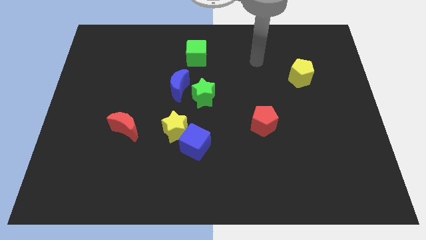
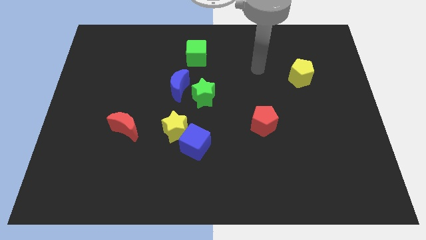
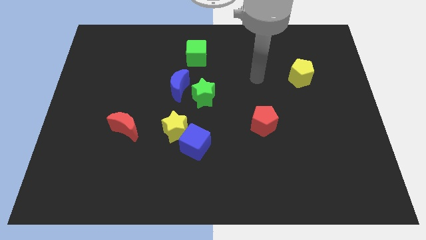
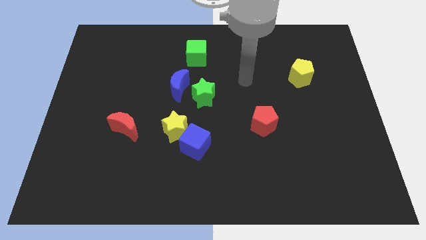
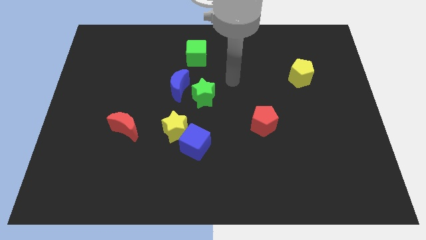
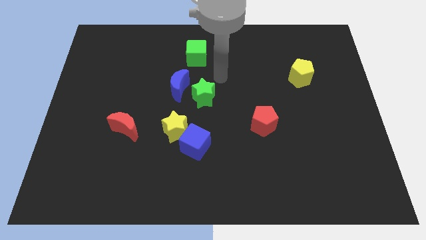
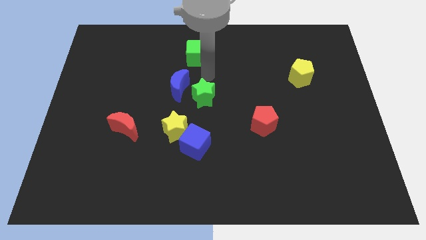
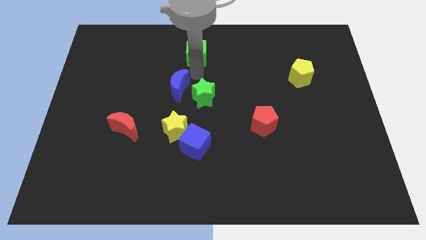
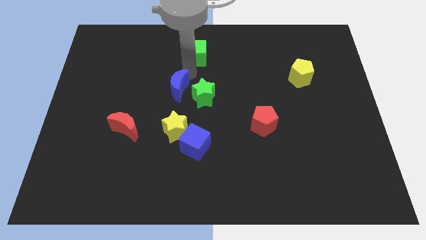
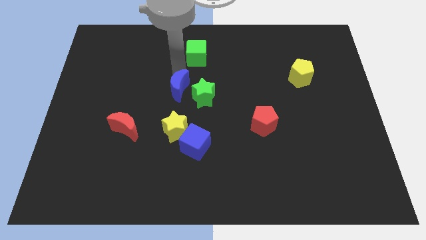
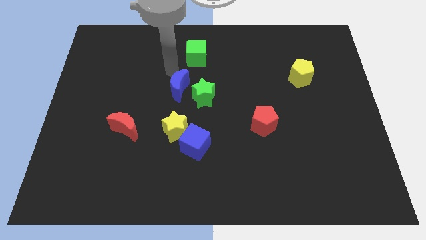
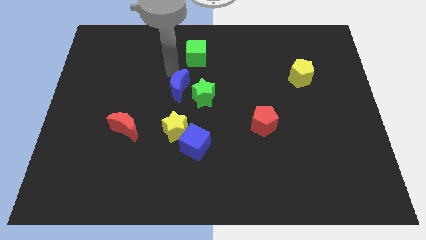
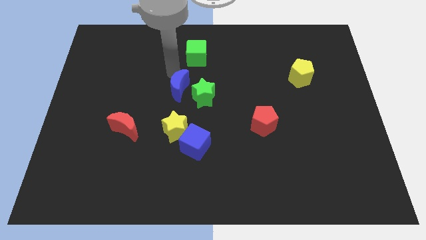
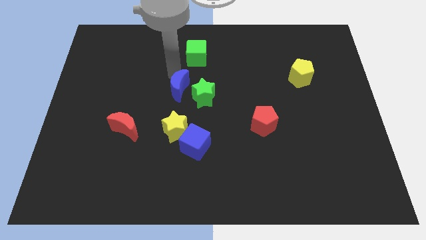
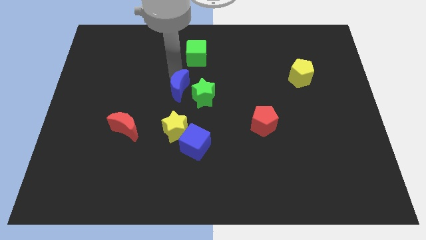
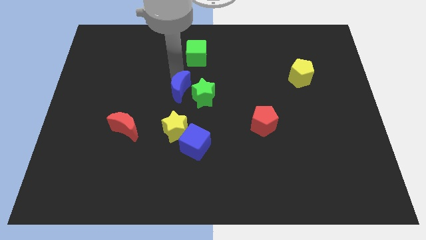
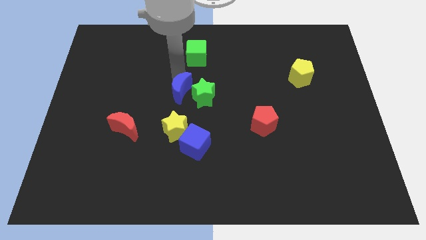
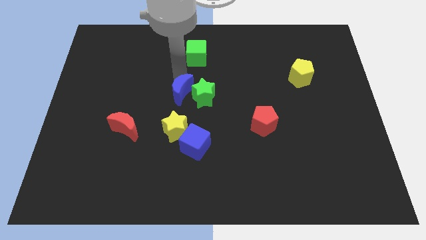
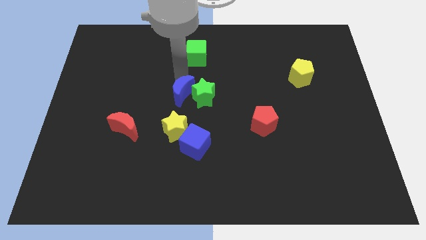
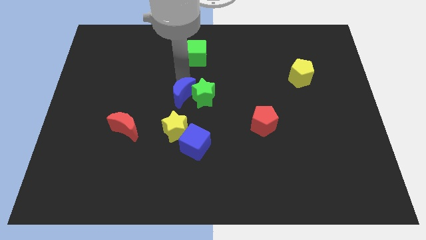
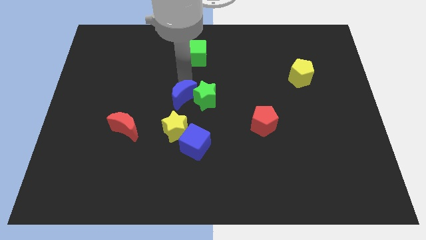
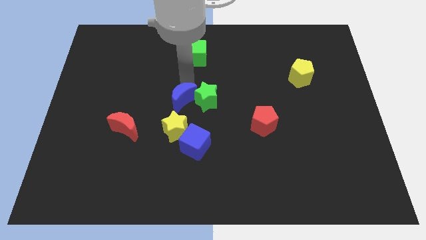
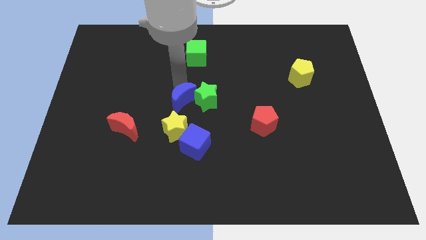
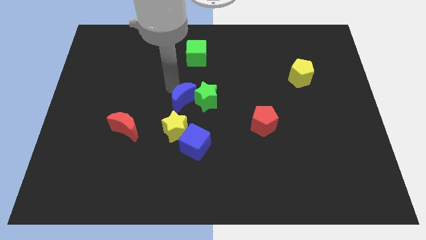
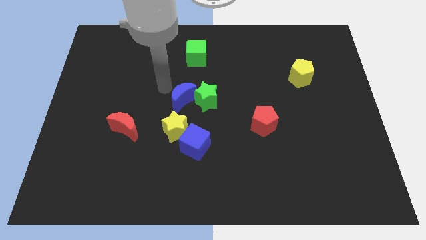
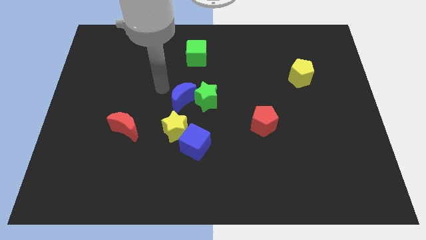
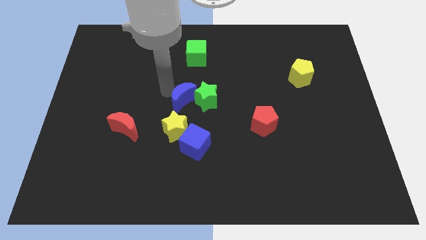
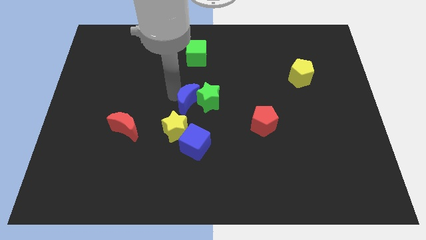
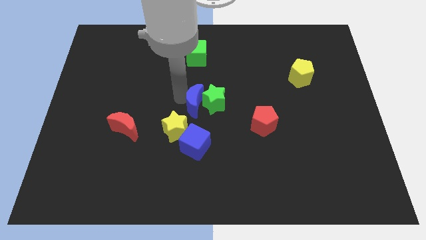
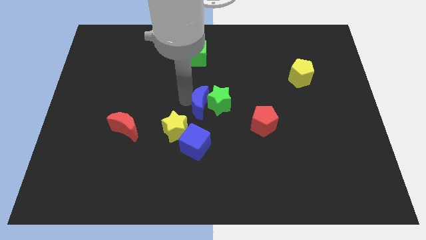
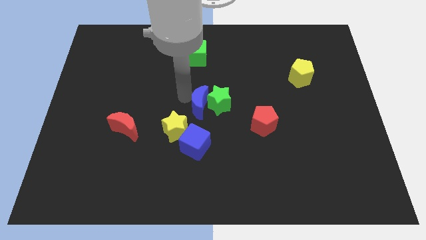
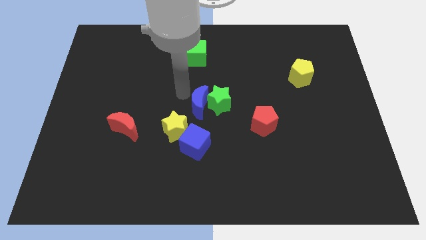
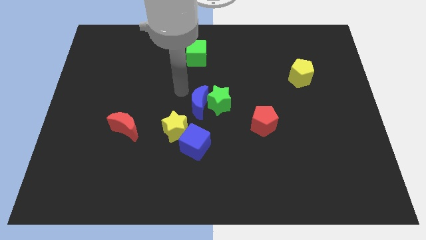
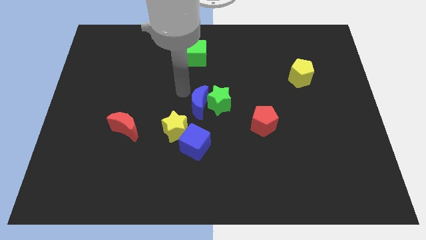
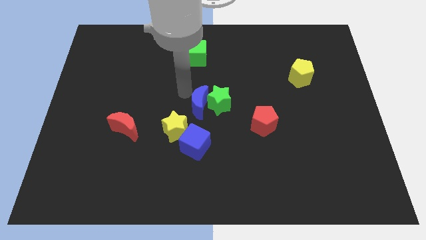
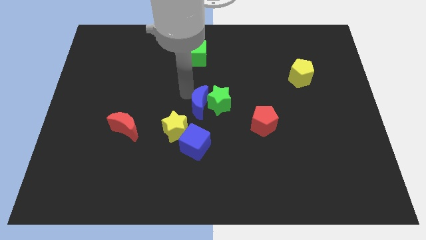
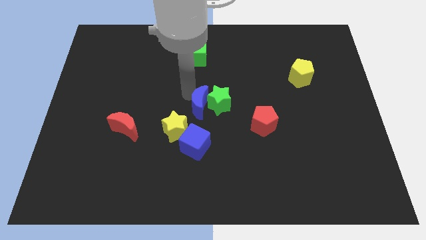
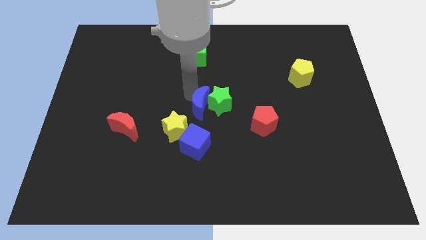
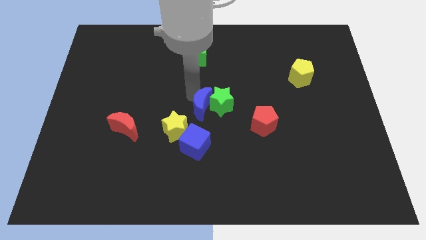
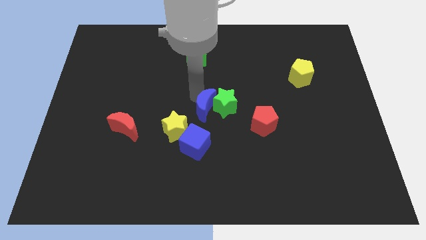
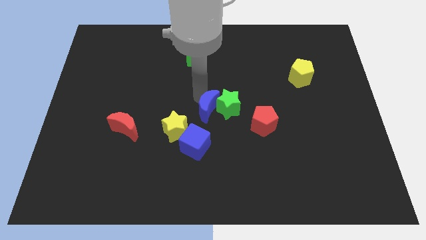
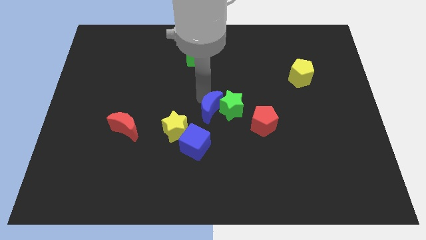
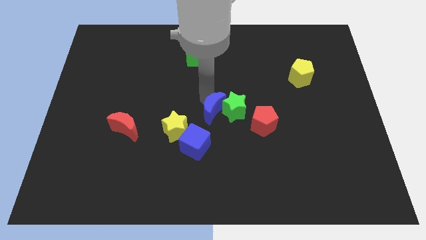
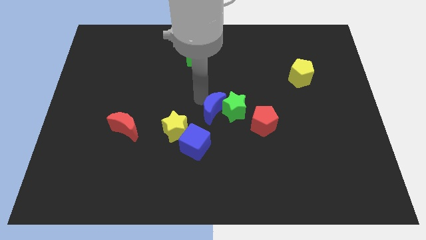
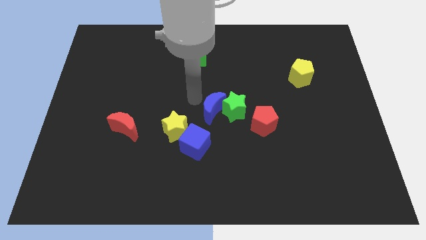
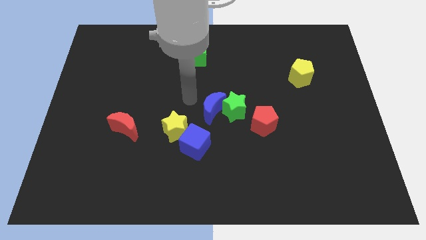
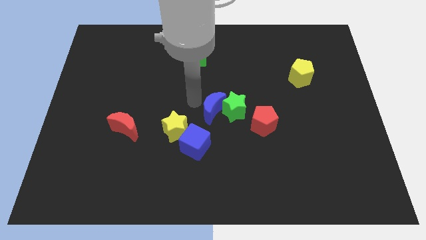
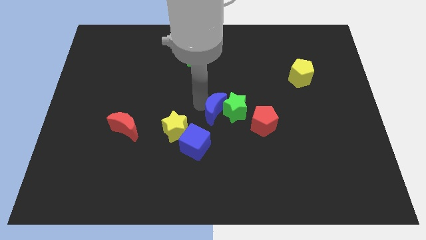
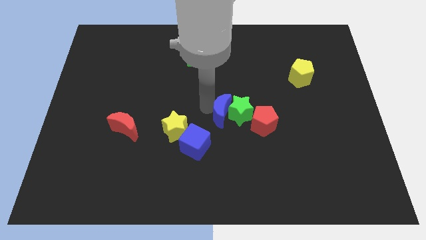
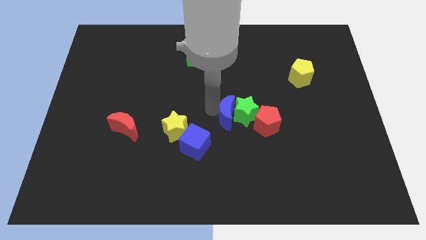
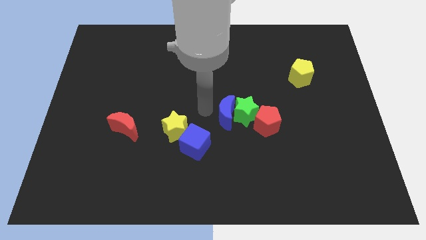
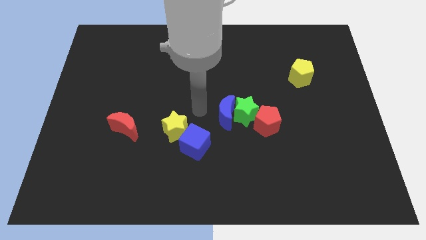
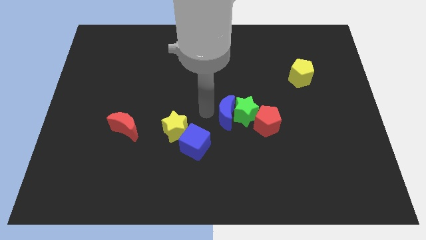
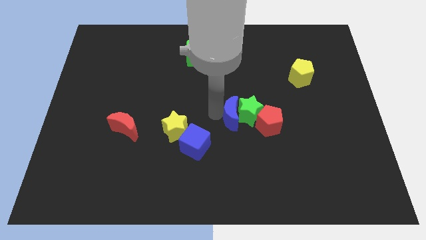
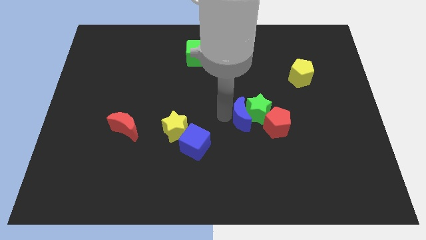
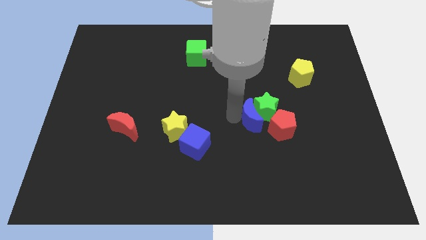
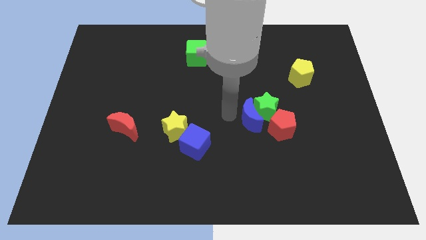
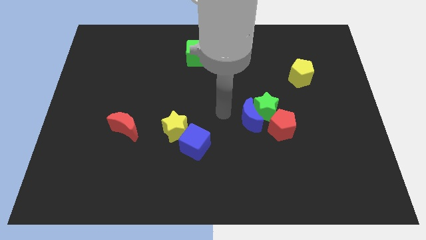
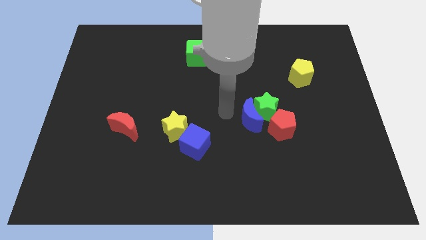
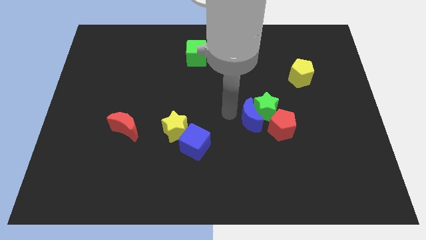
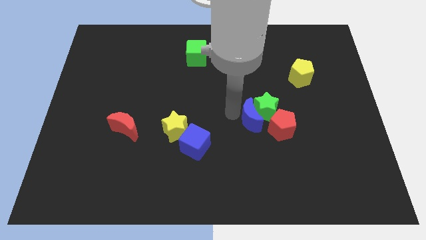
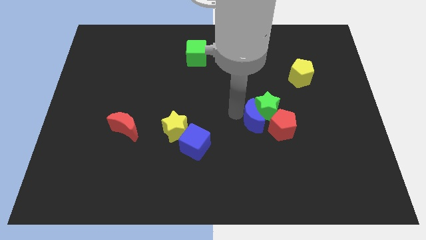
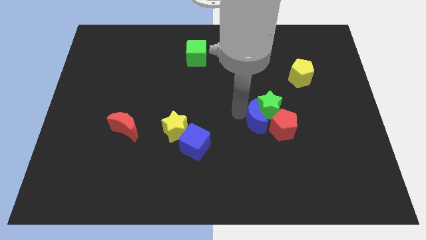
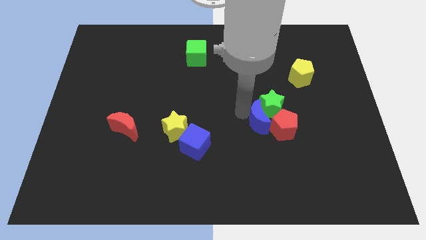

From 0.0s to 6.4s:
push the blue moon next to the red pentagon

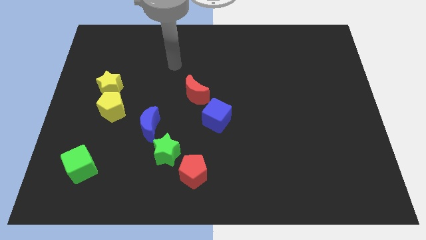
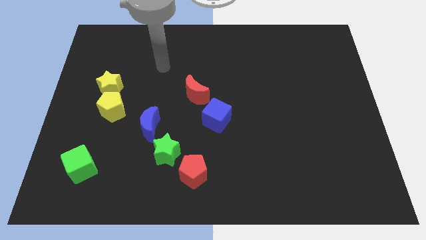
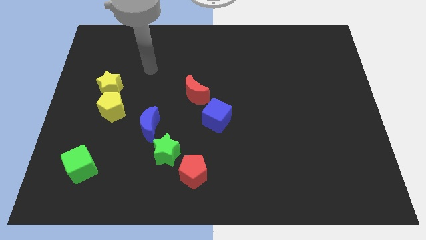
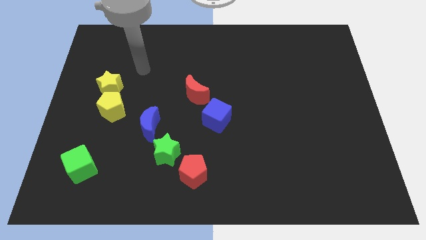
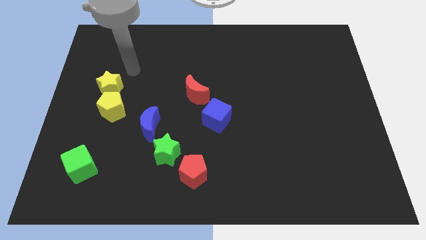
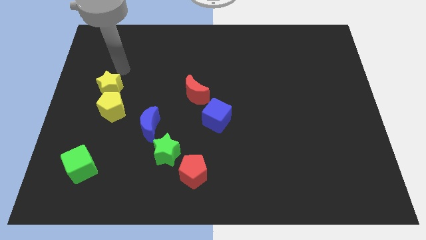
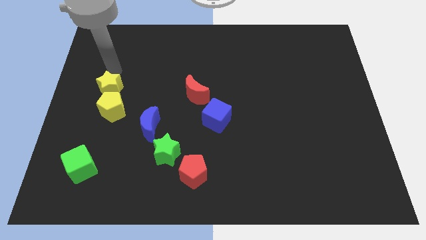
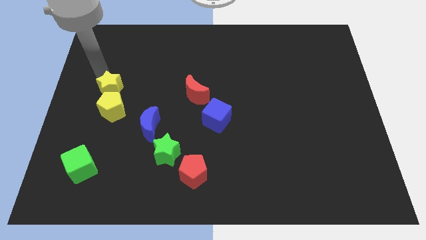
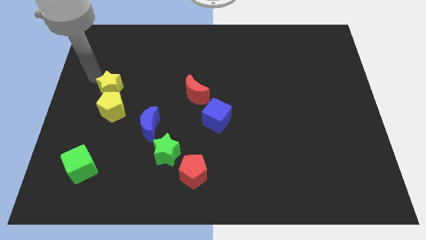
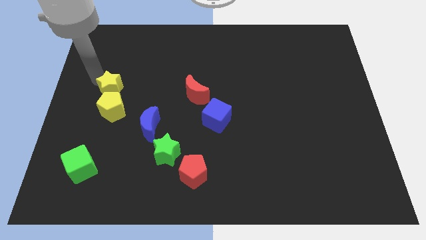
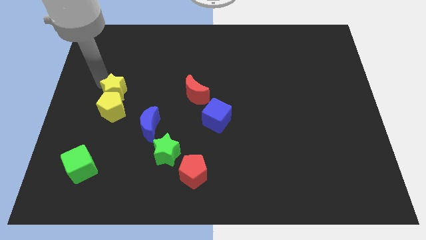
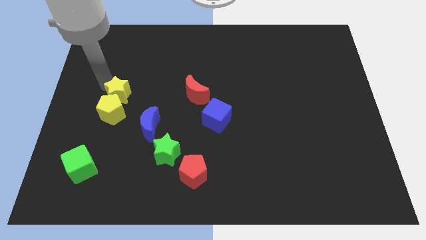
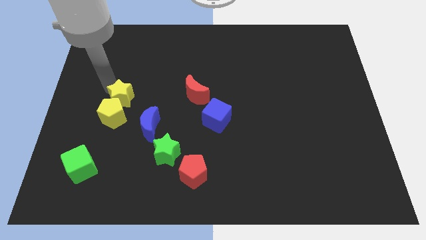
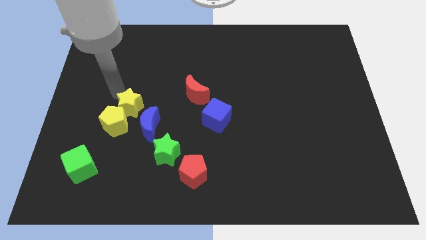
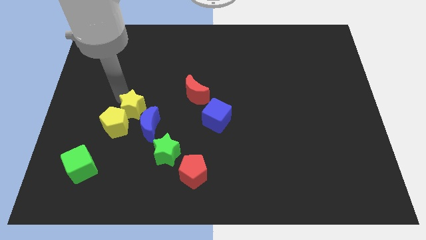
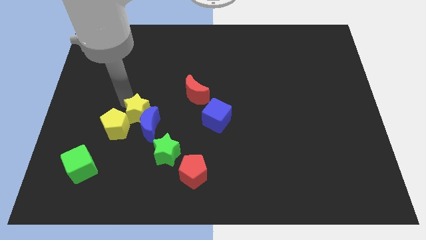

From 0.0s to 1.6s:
push the yellow star to the blue moon
